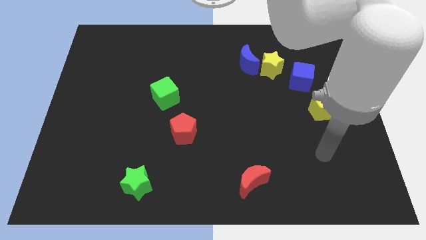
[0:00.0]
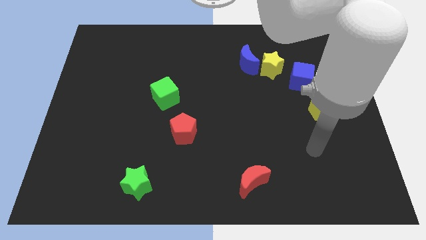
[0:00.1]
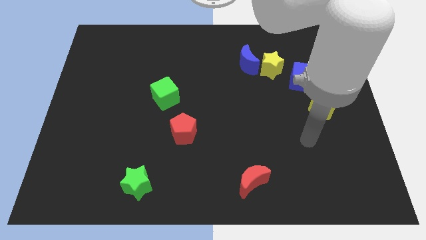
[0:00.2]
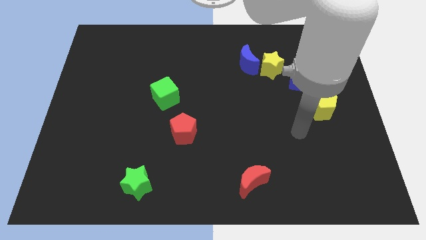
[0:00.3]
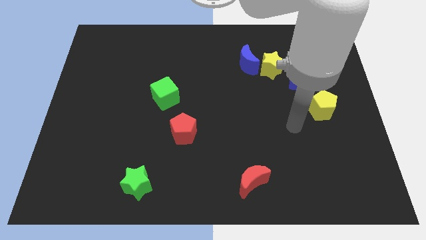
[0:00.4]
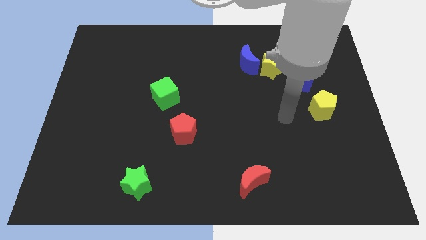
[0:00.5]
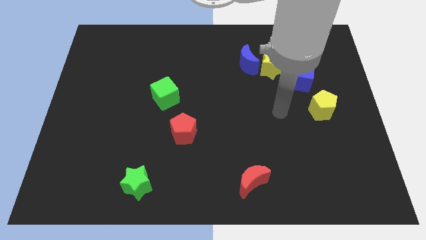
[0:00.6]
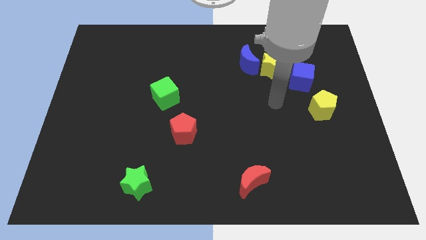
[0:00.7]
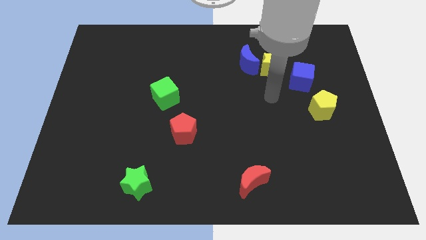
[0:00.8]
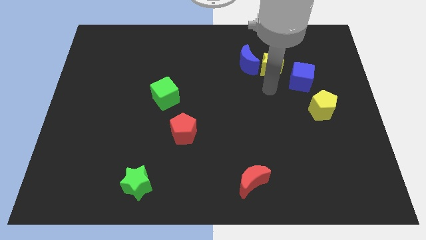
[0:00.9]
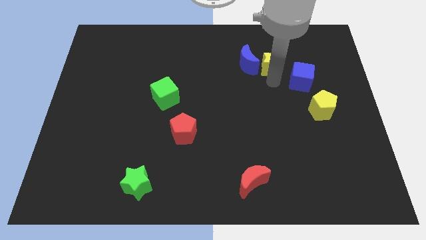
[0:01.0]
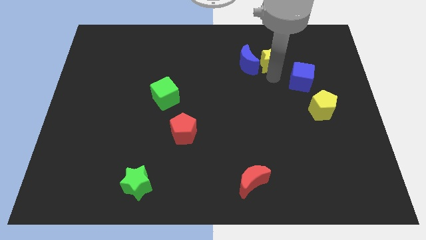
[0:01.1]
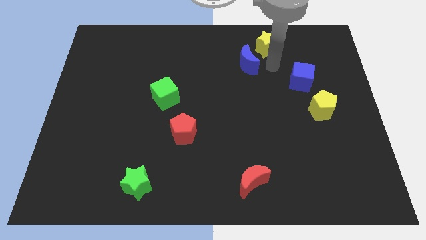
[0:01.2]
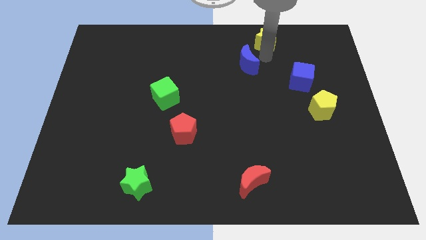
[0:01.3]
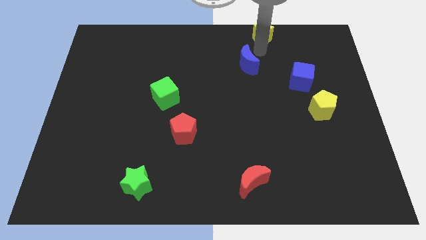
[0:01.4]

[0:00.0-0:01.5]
separate the blue moon from the yellow star

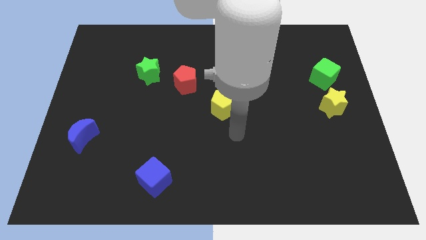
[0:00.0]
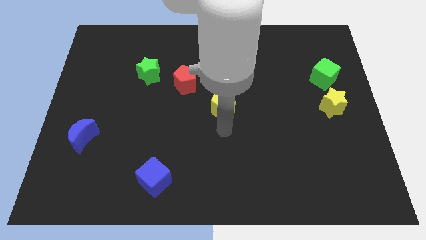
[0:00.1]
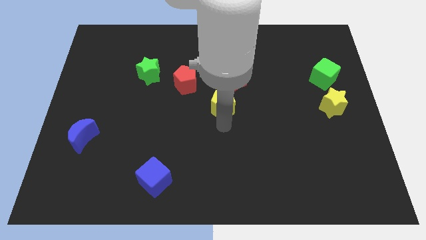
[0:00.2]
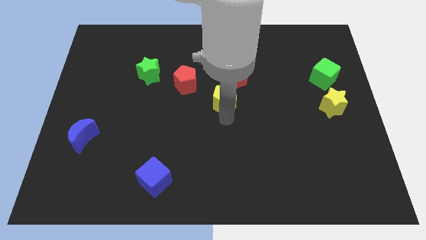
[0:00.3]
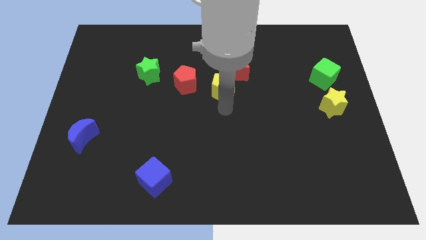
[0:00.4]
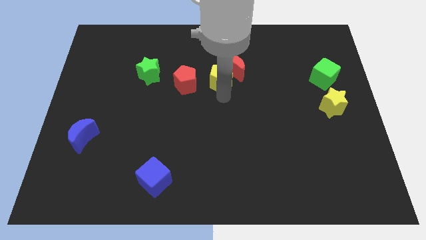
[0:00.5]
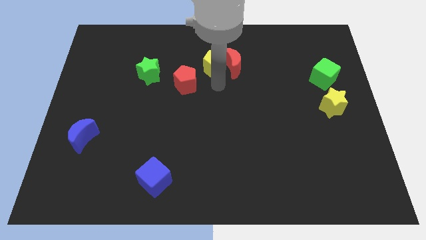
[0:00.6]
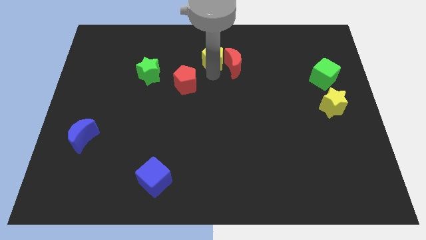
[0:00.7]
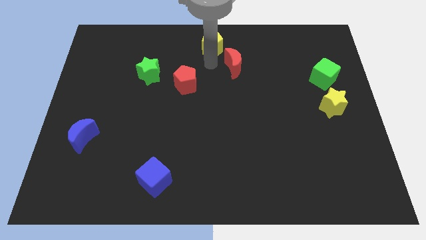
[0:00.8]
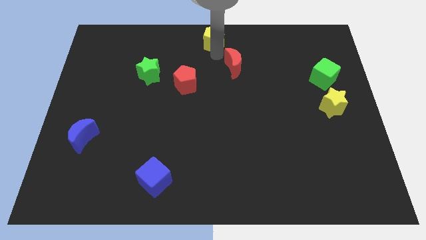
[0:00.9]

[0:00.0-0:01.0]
separate the red moon from the yellow pentagon

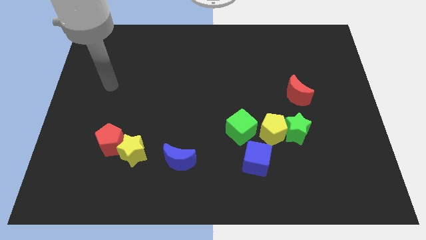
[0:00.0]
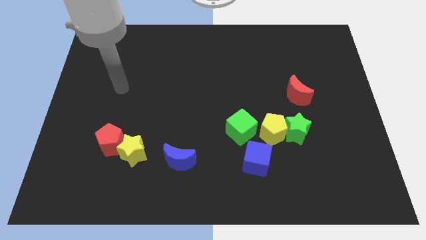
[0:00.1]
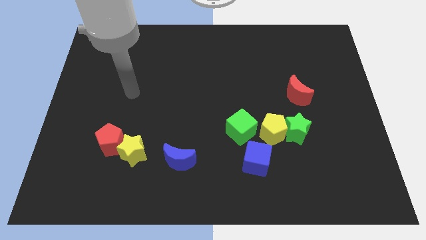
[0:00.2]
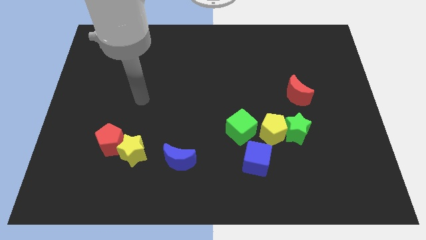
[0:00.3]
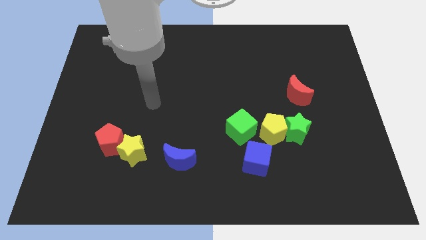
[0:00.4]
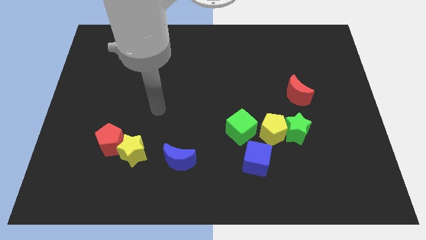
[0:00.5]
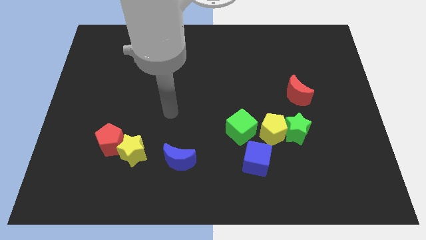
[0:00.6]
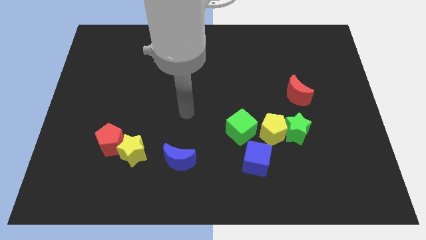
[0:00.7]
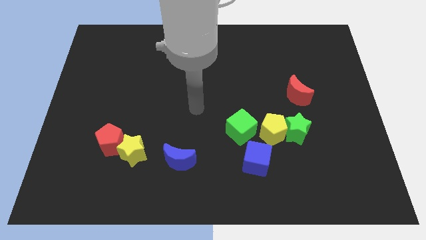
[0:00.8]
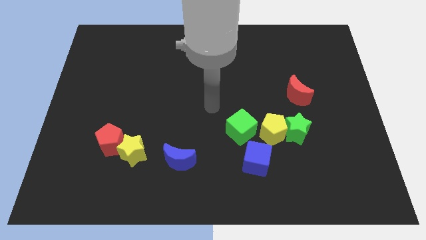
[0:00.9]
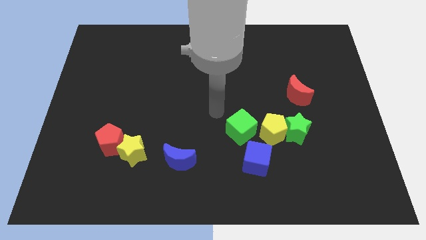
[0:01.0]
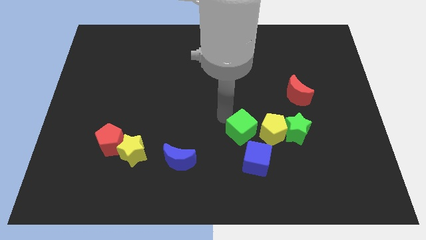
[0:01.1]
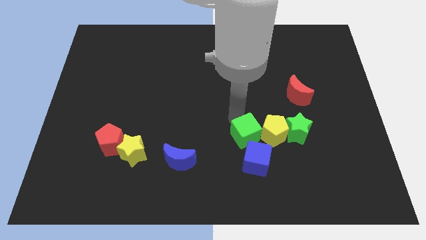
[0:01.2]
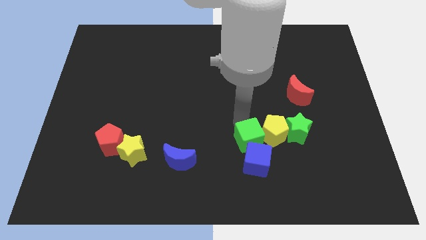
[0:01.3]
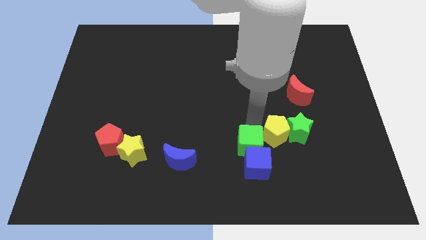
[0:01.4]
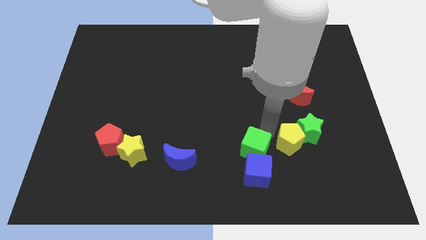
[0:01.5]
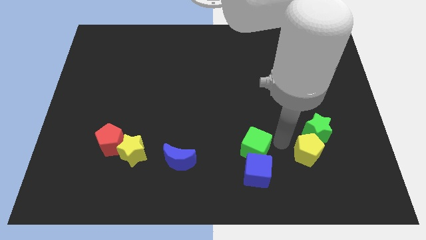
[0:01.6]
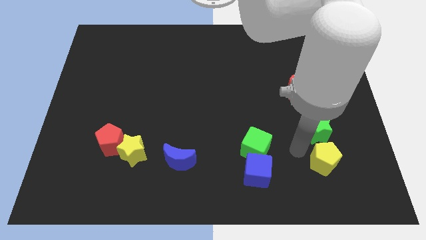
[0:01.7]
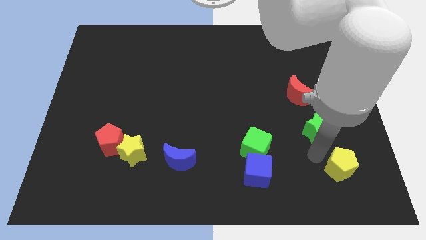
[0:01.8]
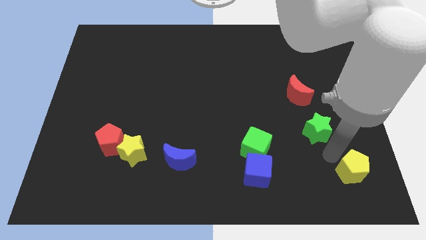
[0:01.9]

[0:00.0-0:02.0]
move the green star away from the yellow pentagon

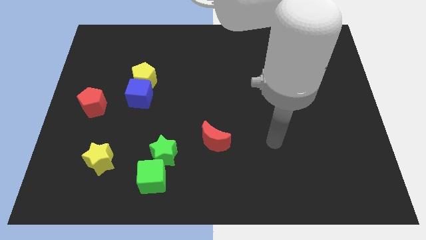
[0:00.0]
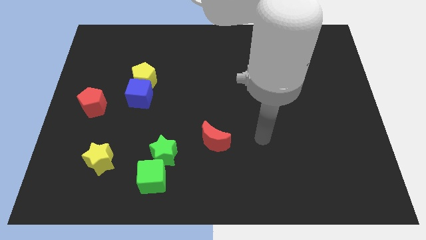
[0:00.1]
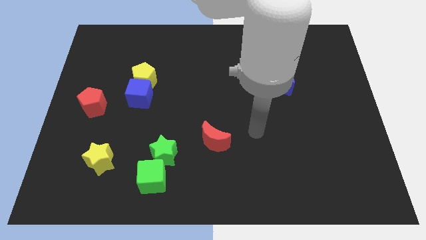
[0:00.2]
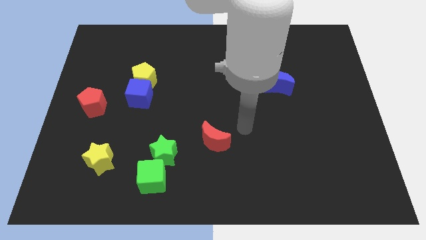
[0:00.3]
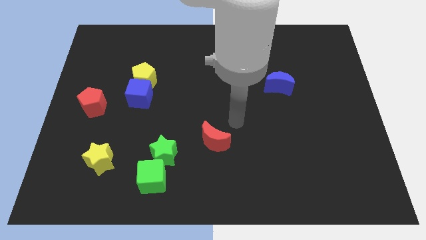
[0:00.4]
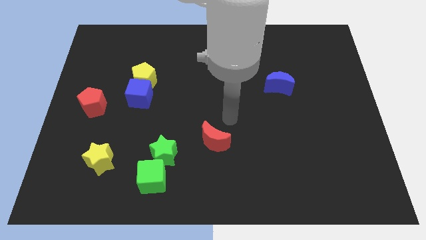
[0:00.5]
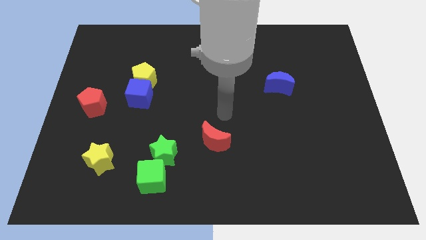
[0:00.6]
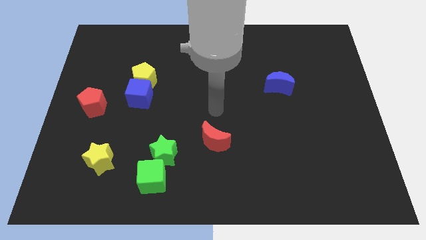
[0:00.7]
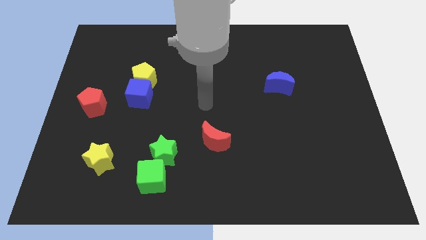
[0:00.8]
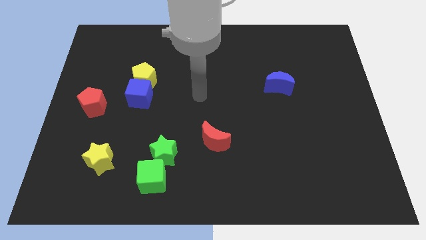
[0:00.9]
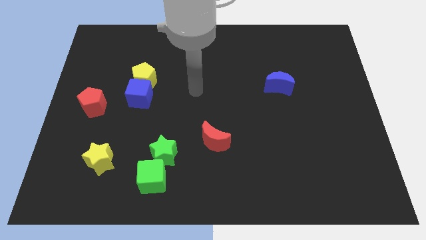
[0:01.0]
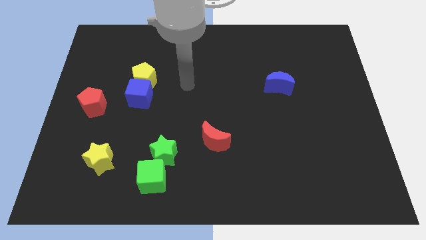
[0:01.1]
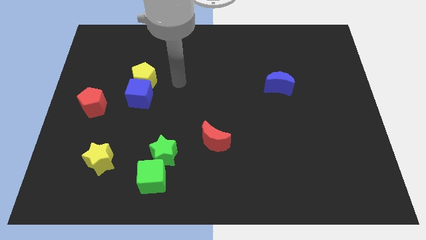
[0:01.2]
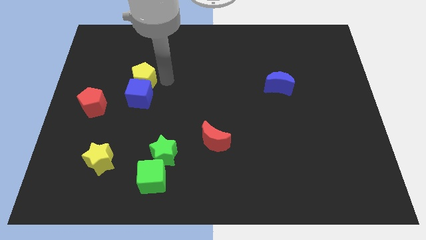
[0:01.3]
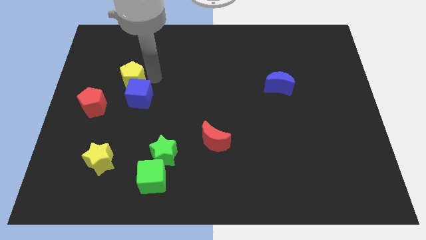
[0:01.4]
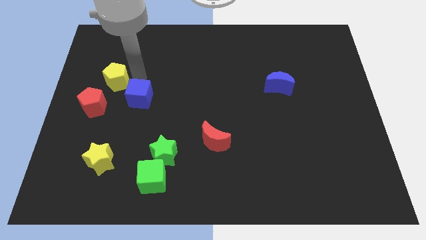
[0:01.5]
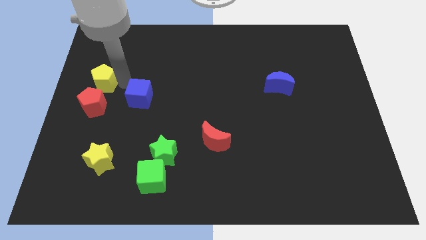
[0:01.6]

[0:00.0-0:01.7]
pull the blue cube apart from the yellow pentagon

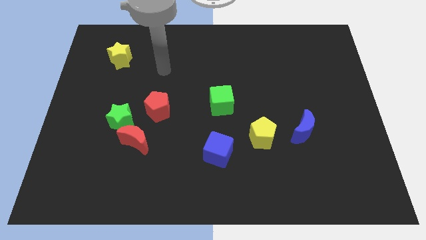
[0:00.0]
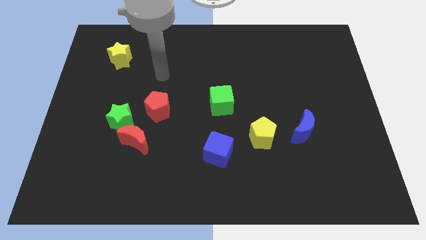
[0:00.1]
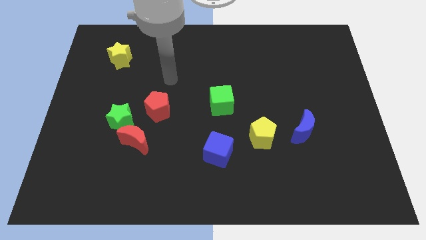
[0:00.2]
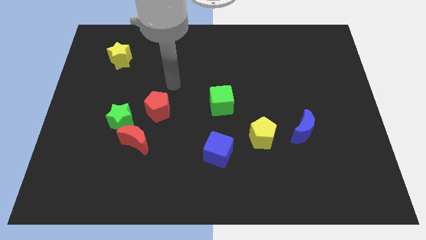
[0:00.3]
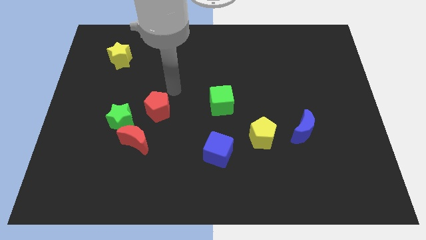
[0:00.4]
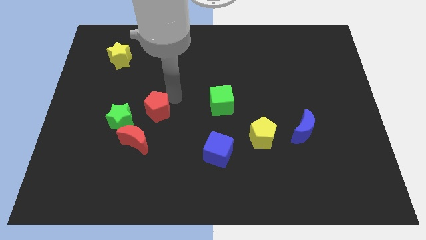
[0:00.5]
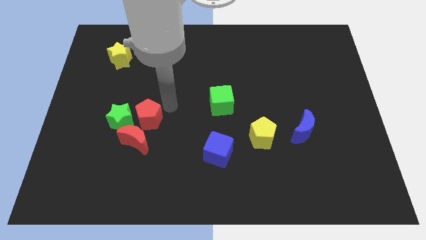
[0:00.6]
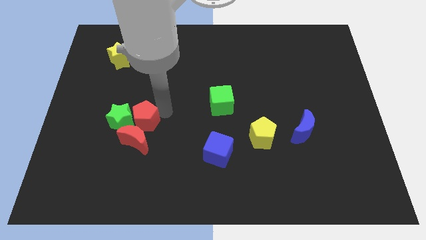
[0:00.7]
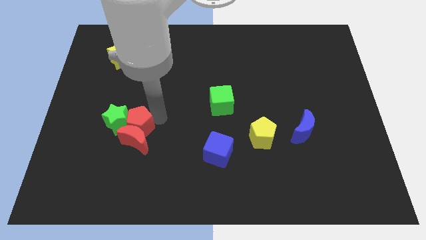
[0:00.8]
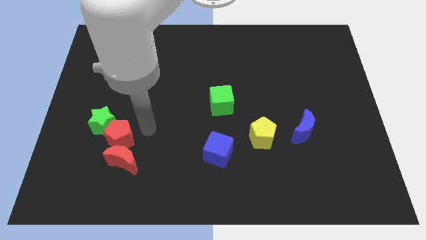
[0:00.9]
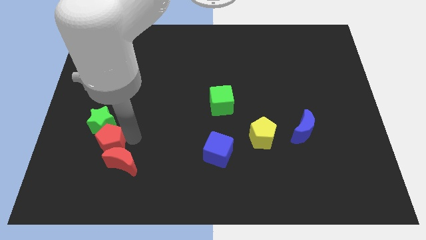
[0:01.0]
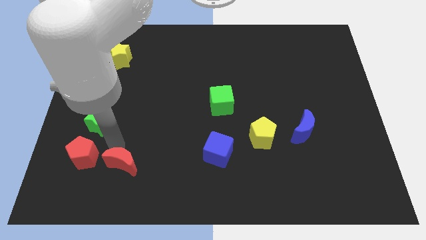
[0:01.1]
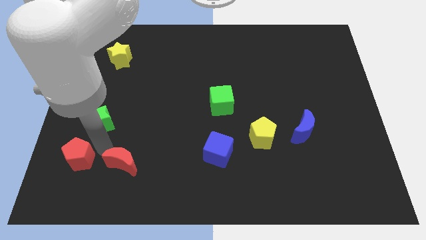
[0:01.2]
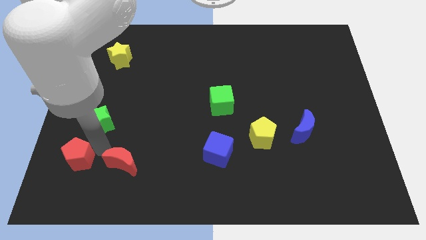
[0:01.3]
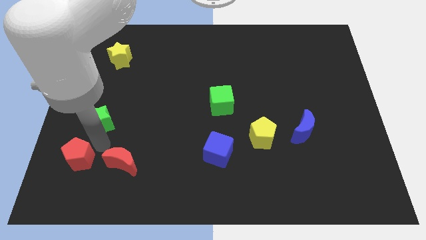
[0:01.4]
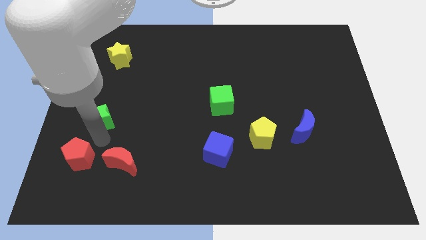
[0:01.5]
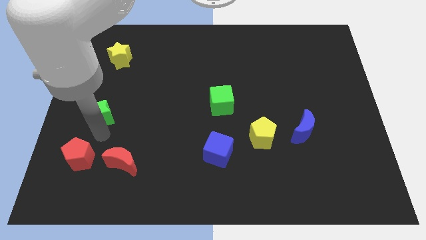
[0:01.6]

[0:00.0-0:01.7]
move the green star away from the red moon and red pentagon

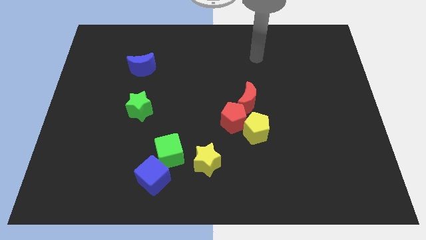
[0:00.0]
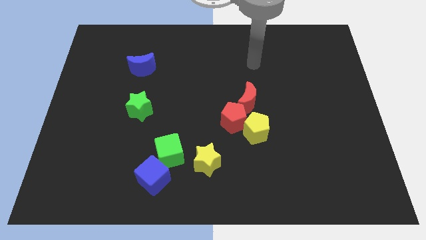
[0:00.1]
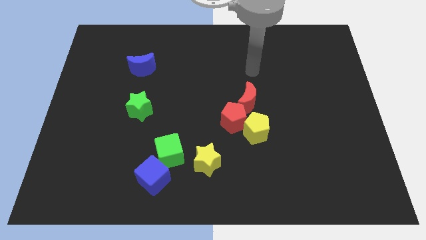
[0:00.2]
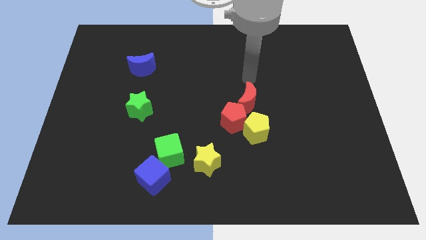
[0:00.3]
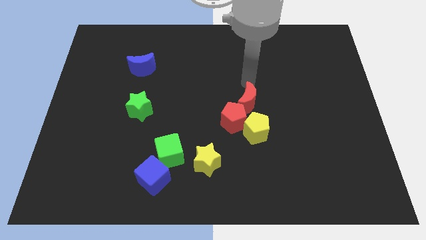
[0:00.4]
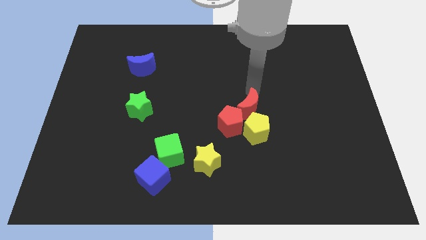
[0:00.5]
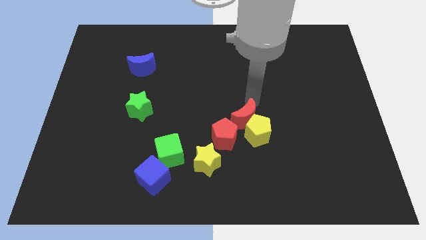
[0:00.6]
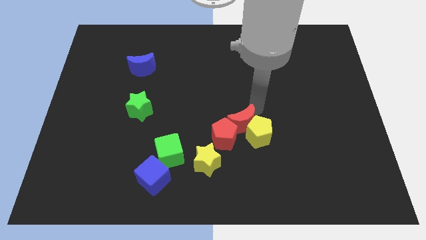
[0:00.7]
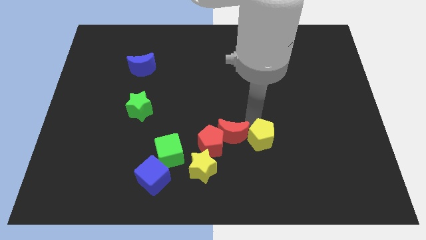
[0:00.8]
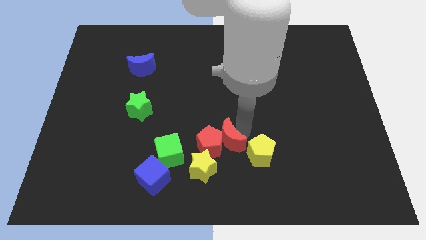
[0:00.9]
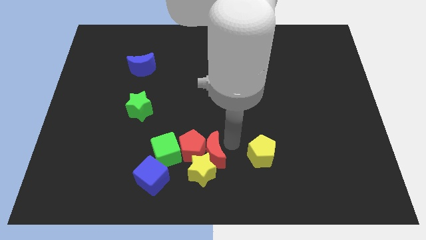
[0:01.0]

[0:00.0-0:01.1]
move the red pentagon away from the yellow pentagon and red moon

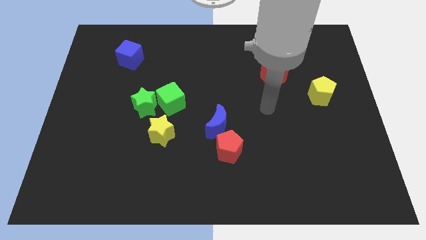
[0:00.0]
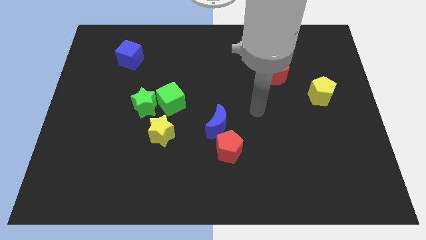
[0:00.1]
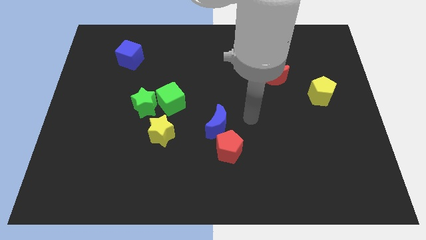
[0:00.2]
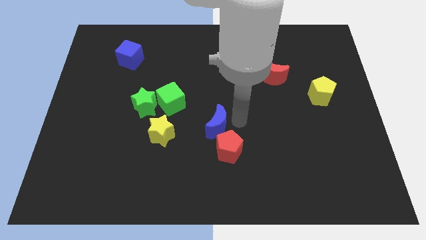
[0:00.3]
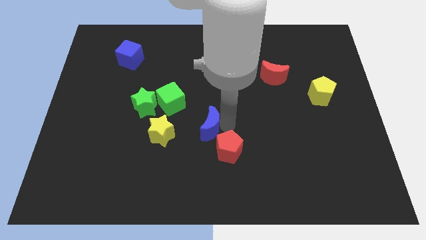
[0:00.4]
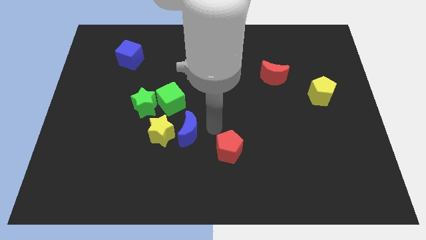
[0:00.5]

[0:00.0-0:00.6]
pull the red pentagon apart from the blue moon
